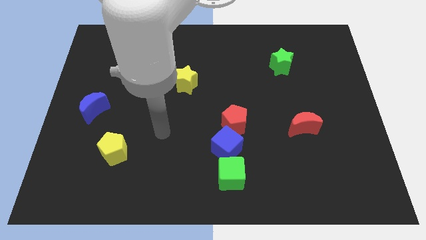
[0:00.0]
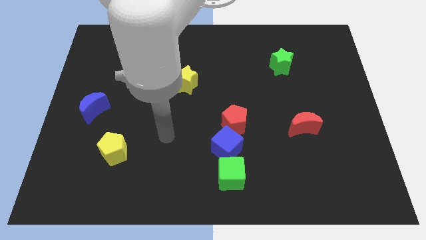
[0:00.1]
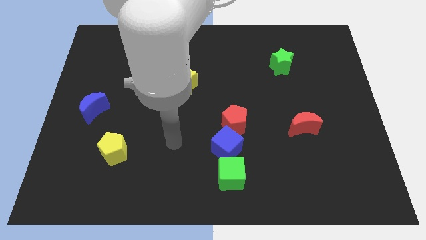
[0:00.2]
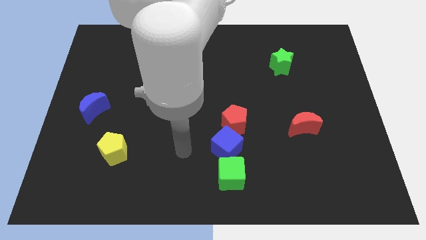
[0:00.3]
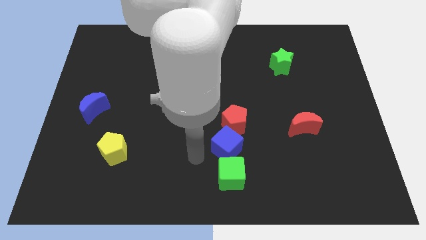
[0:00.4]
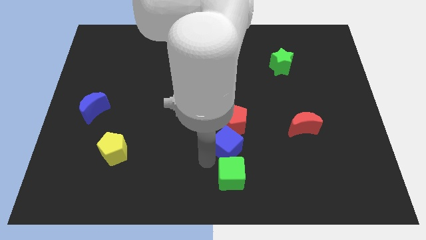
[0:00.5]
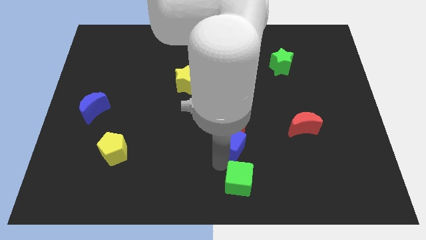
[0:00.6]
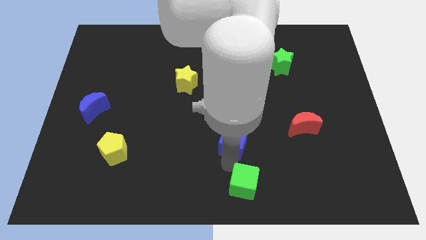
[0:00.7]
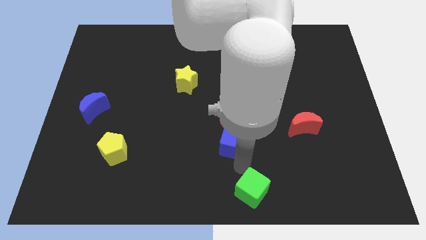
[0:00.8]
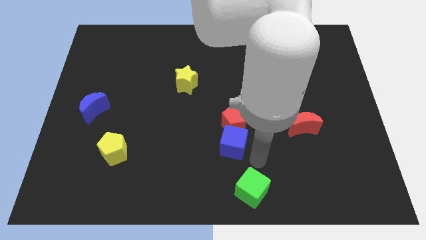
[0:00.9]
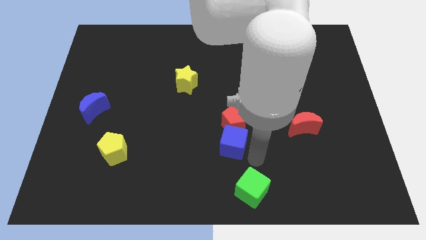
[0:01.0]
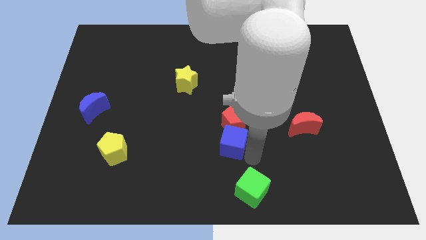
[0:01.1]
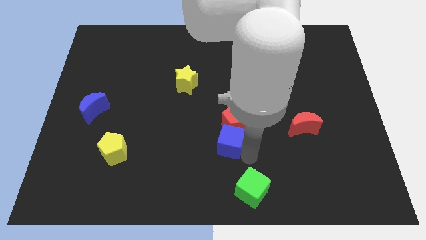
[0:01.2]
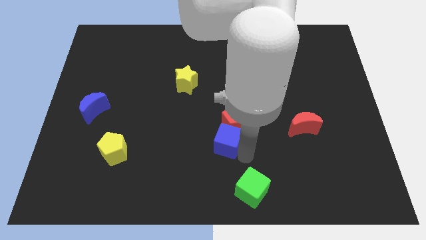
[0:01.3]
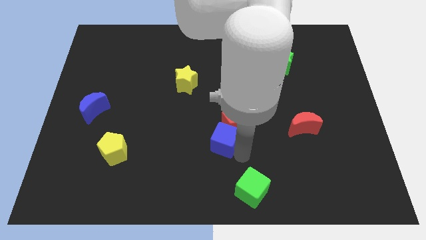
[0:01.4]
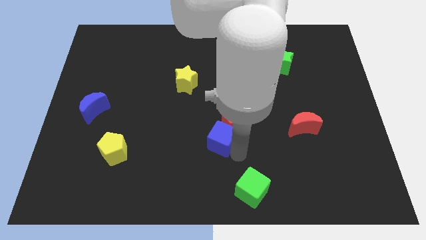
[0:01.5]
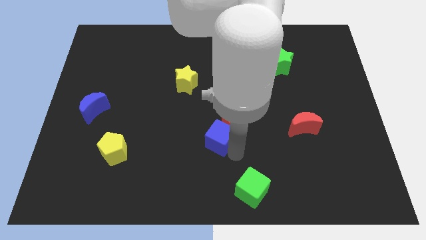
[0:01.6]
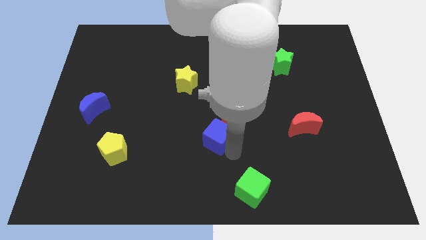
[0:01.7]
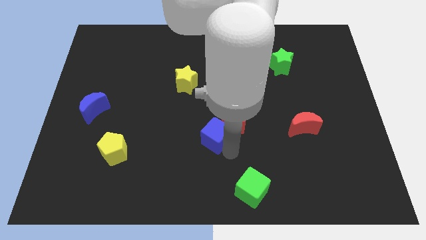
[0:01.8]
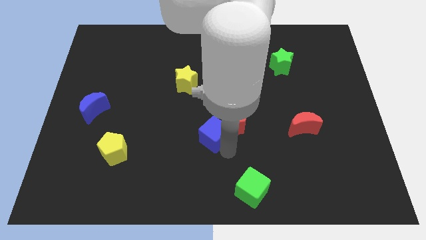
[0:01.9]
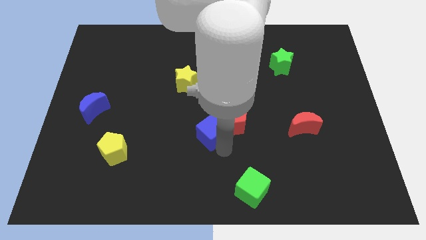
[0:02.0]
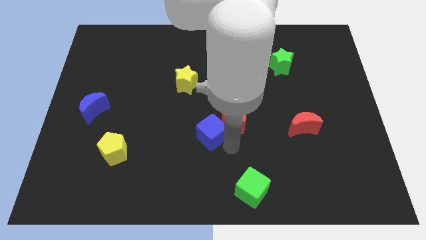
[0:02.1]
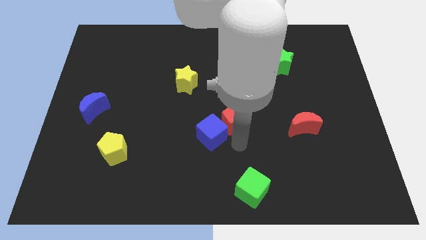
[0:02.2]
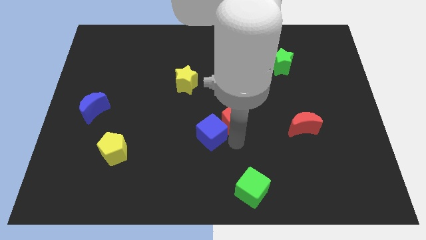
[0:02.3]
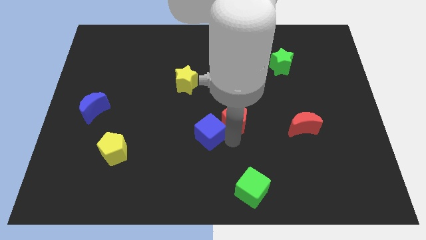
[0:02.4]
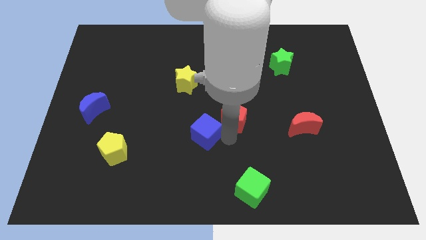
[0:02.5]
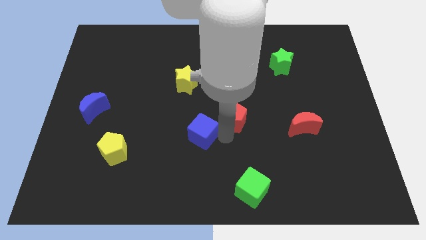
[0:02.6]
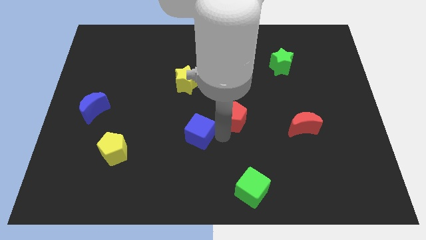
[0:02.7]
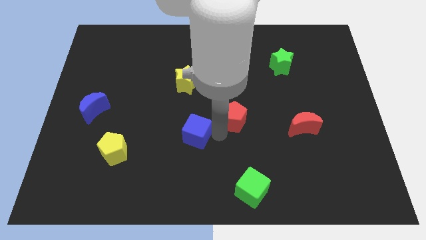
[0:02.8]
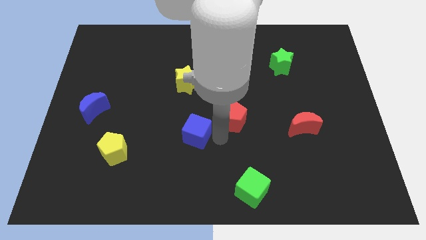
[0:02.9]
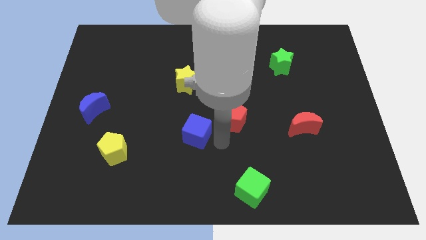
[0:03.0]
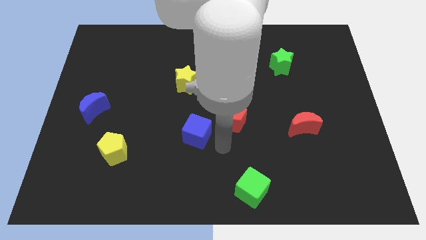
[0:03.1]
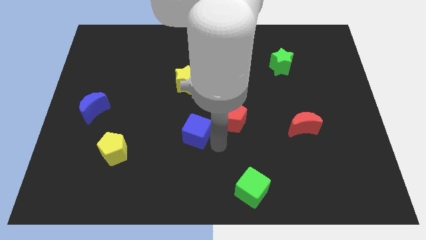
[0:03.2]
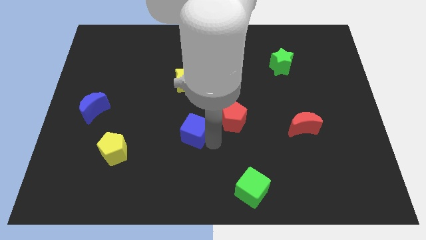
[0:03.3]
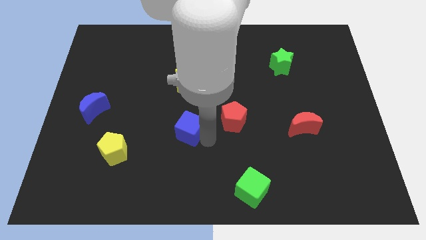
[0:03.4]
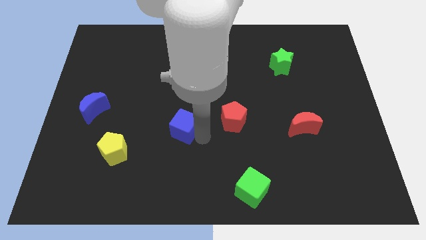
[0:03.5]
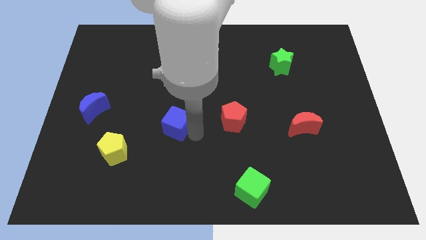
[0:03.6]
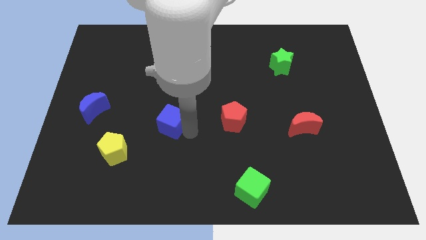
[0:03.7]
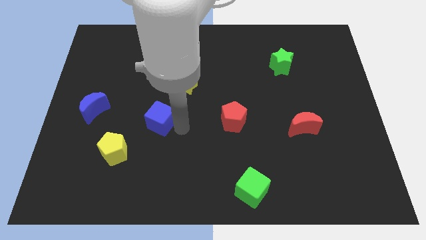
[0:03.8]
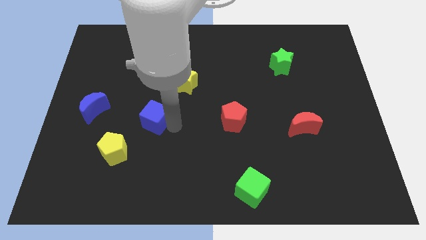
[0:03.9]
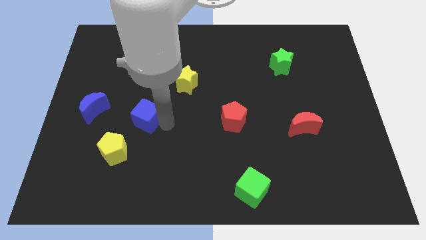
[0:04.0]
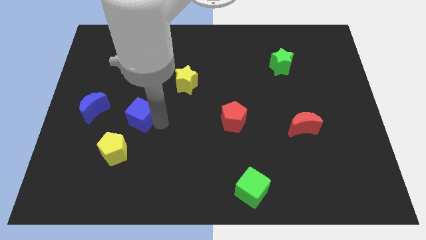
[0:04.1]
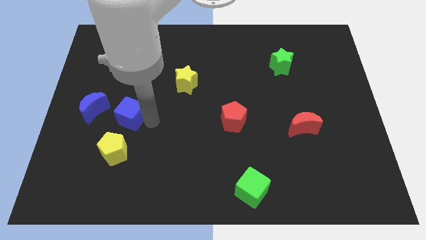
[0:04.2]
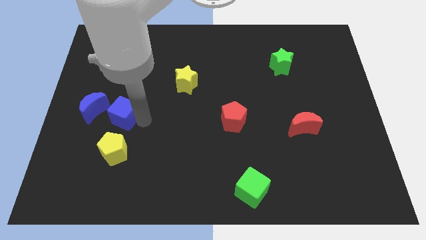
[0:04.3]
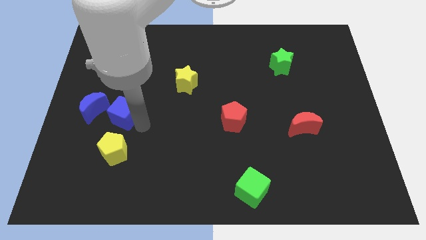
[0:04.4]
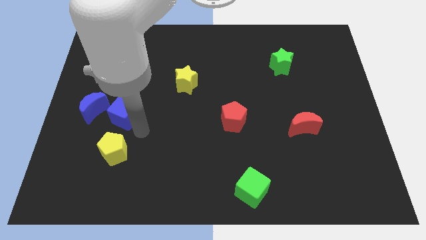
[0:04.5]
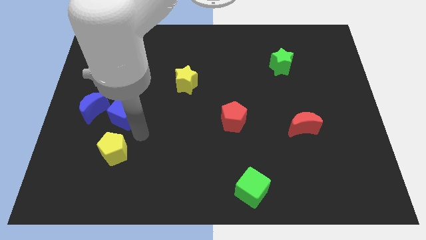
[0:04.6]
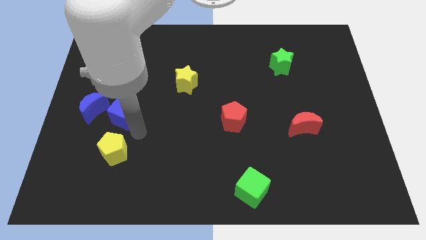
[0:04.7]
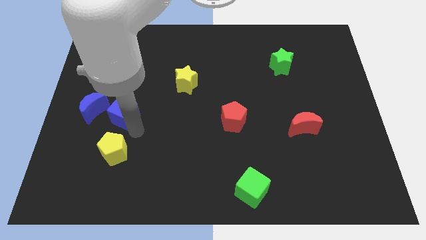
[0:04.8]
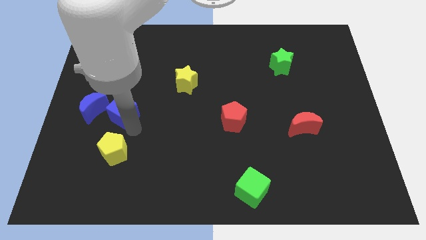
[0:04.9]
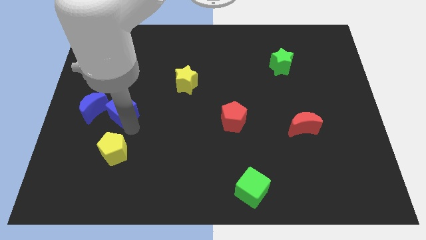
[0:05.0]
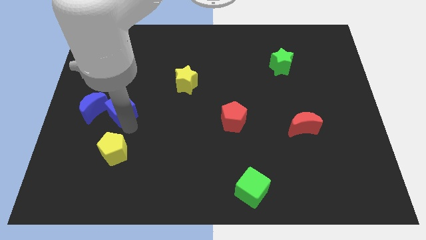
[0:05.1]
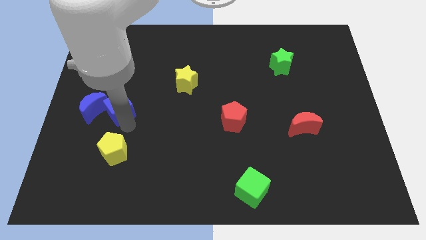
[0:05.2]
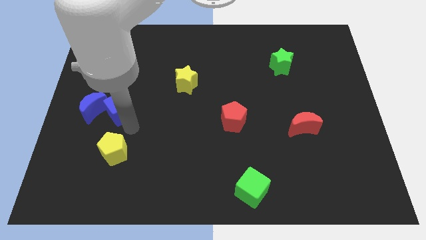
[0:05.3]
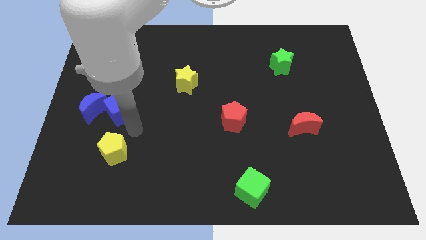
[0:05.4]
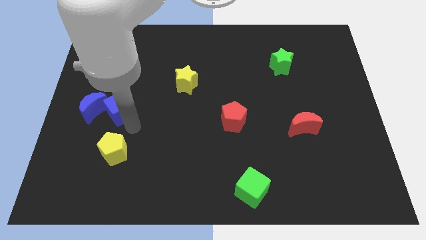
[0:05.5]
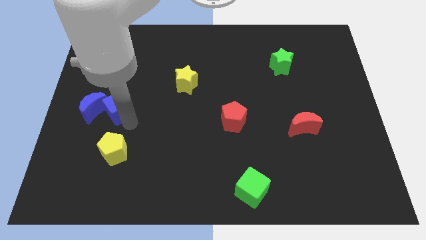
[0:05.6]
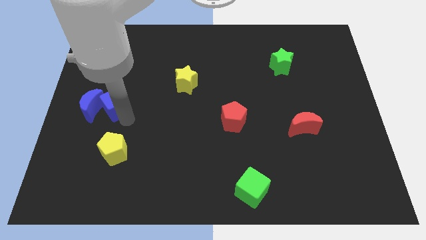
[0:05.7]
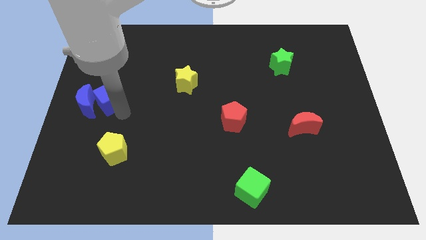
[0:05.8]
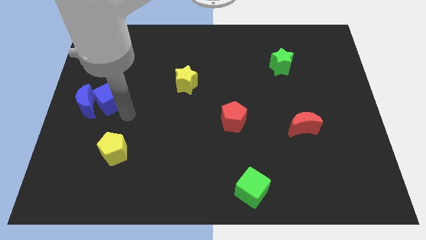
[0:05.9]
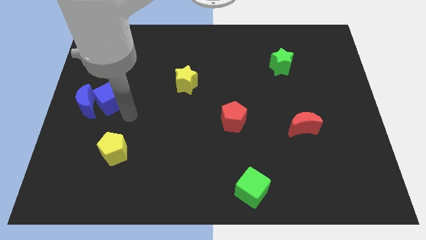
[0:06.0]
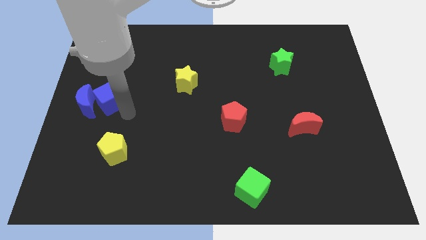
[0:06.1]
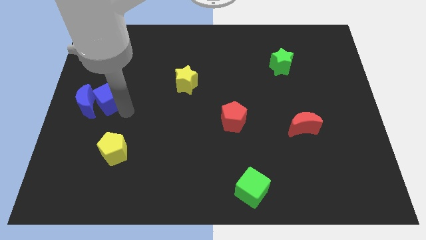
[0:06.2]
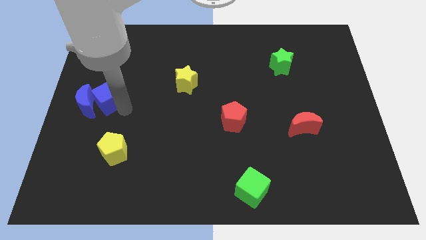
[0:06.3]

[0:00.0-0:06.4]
put the blue cube to the left side of the board

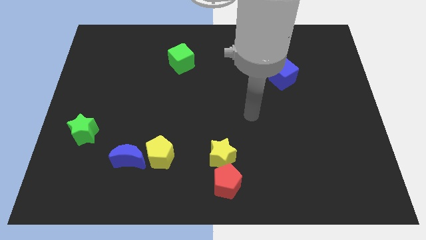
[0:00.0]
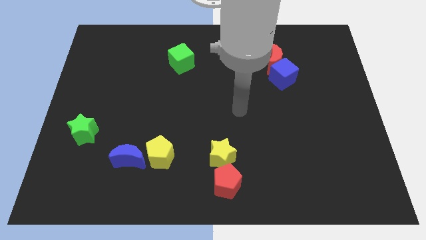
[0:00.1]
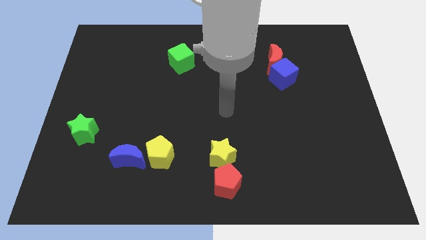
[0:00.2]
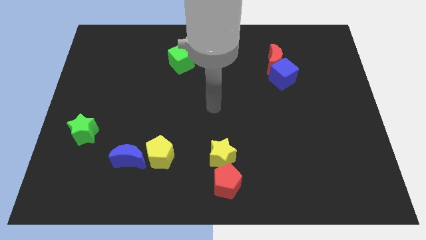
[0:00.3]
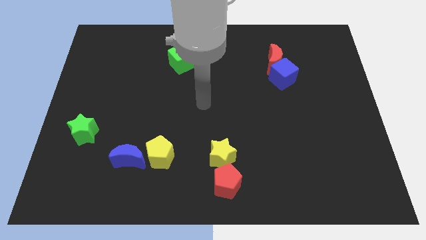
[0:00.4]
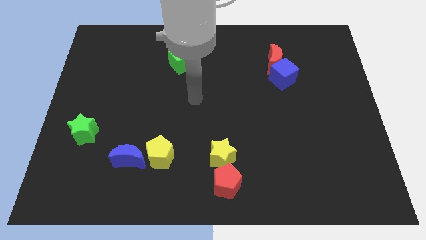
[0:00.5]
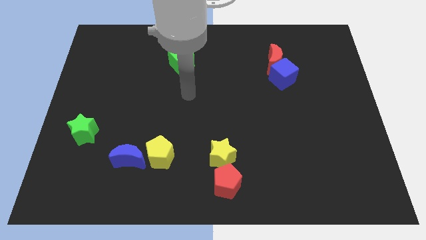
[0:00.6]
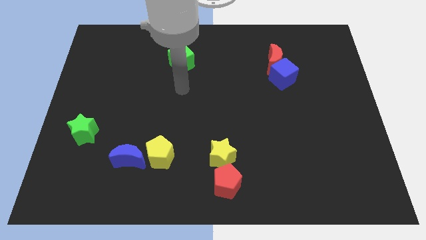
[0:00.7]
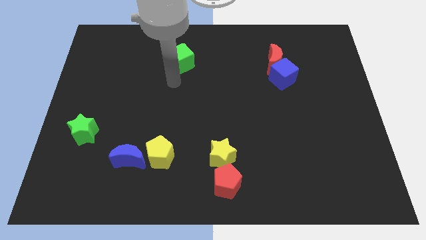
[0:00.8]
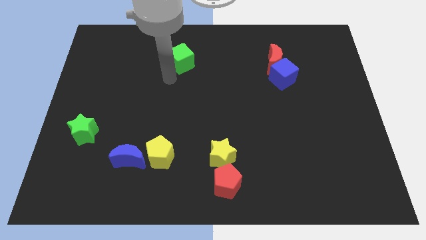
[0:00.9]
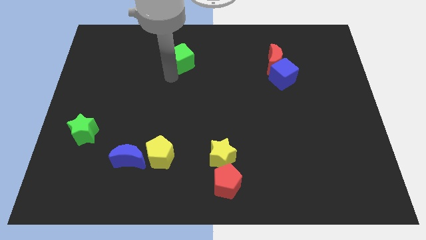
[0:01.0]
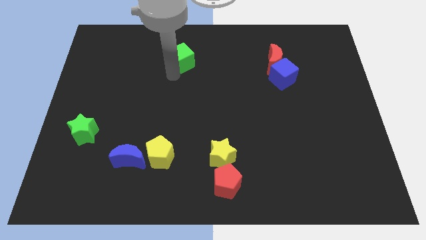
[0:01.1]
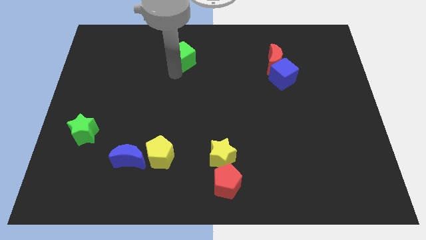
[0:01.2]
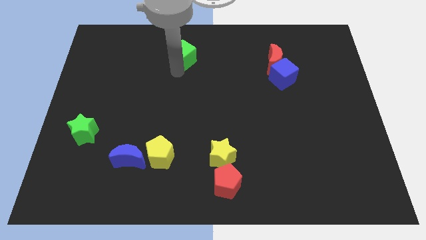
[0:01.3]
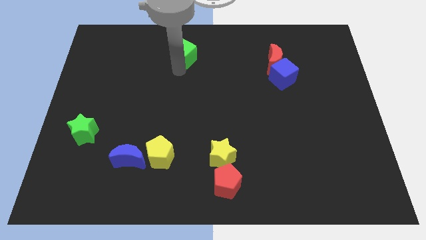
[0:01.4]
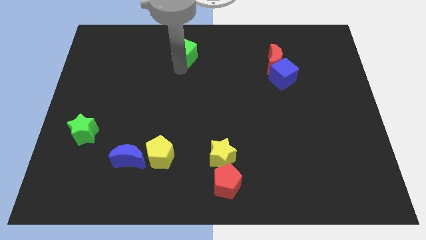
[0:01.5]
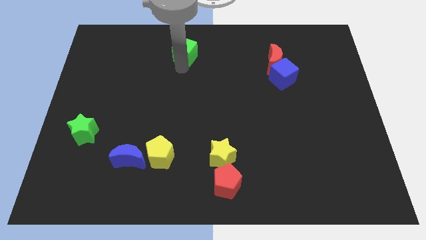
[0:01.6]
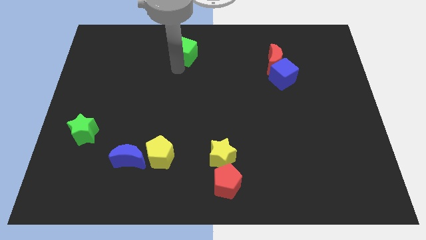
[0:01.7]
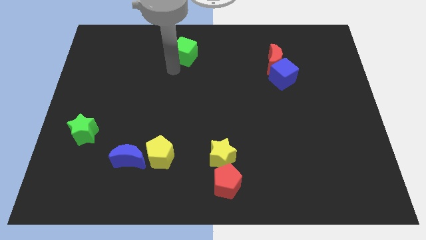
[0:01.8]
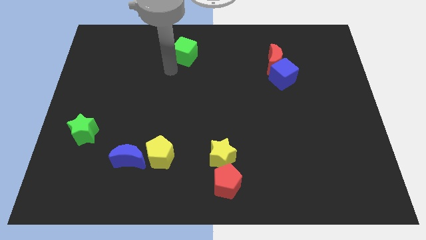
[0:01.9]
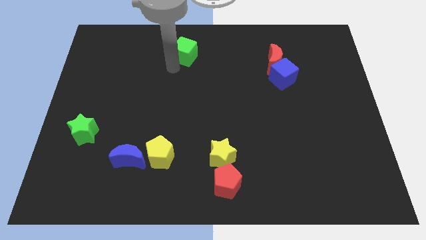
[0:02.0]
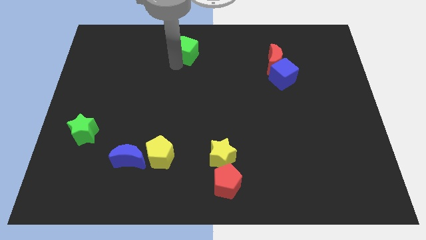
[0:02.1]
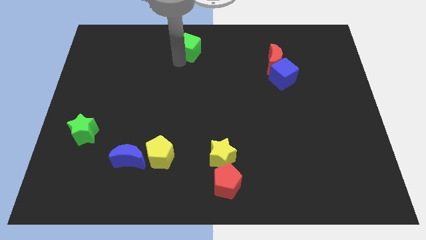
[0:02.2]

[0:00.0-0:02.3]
slide the green cube to the towards your base
